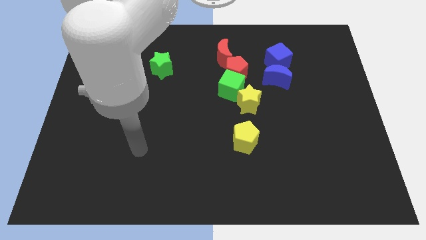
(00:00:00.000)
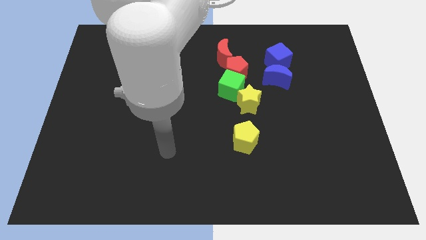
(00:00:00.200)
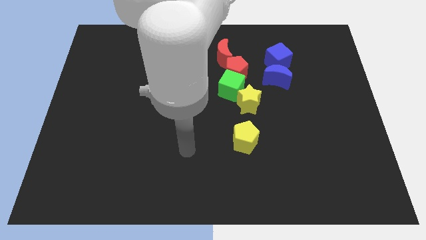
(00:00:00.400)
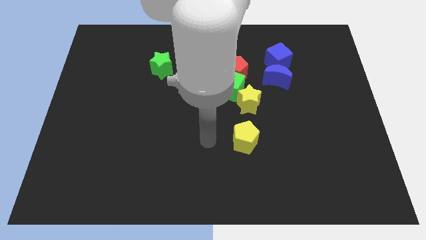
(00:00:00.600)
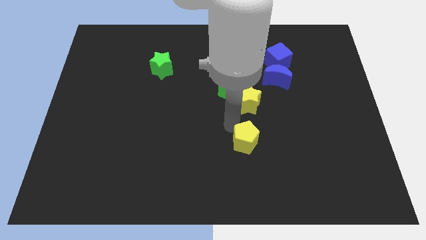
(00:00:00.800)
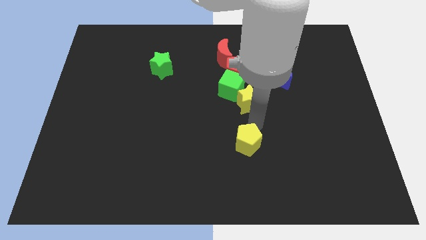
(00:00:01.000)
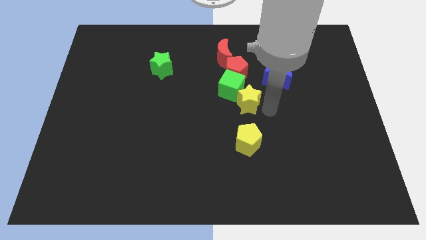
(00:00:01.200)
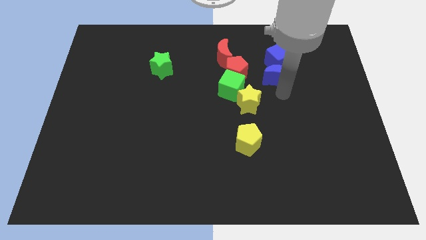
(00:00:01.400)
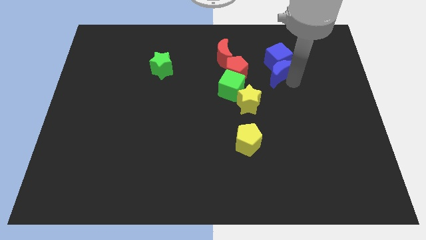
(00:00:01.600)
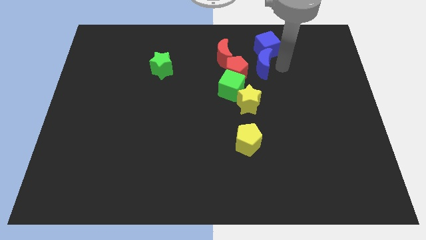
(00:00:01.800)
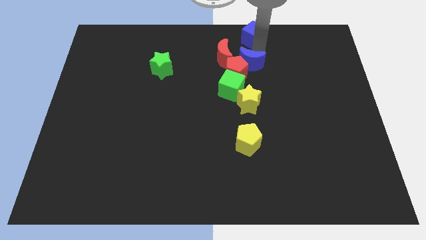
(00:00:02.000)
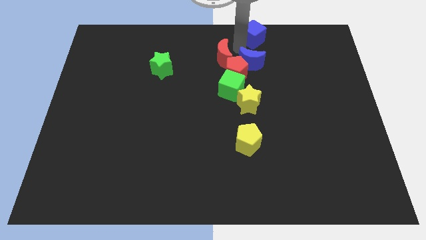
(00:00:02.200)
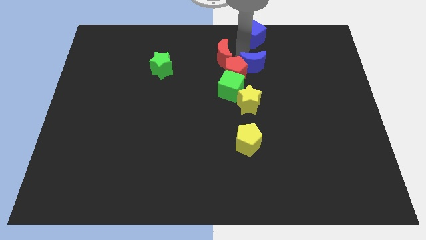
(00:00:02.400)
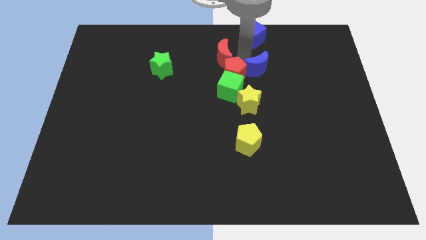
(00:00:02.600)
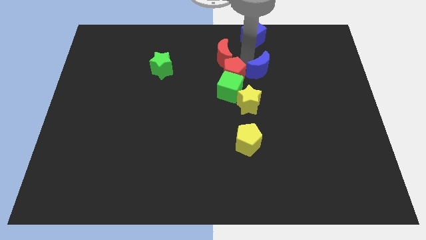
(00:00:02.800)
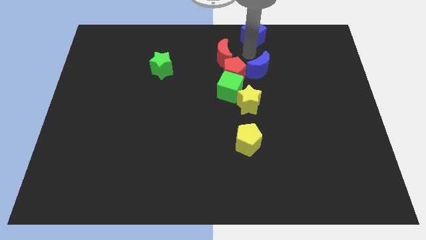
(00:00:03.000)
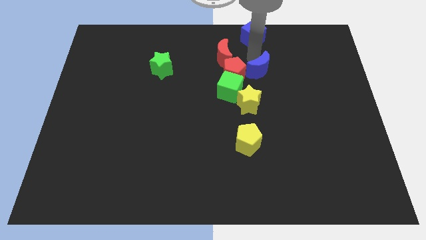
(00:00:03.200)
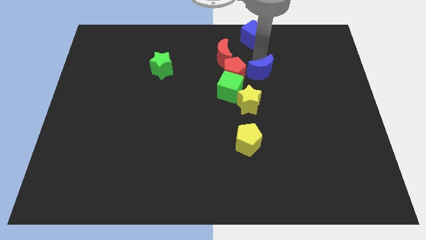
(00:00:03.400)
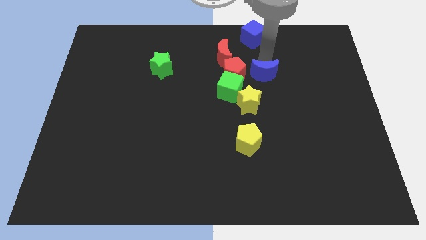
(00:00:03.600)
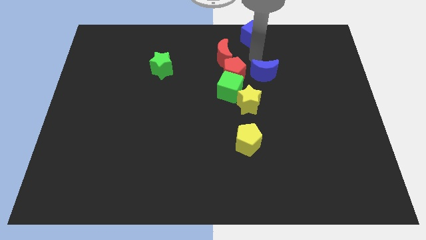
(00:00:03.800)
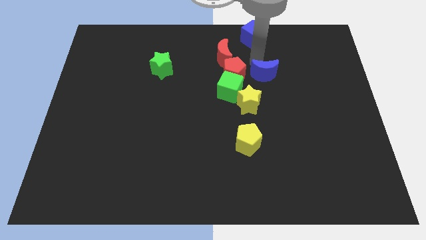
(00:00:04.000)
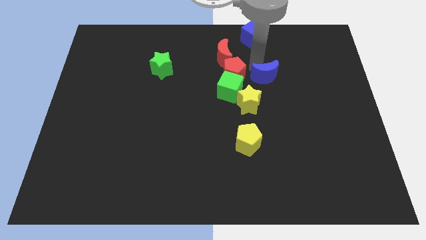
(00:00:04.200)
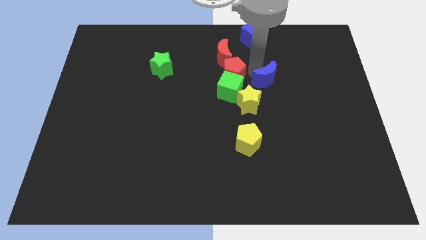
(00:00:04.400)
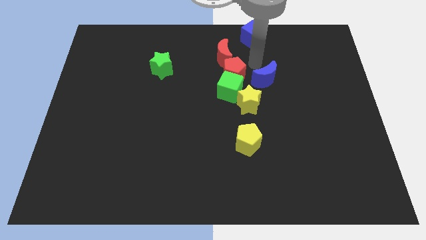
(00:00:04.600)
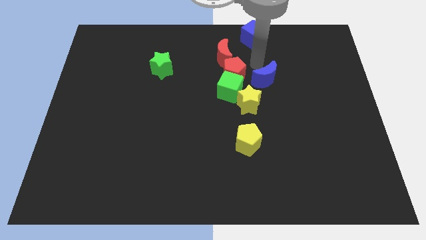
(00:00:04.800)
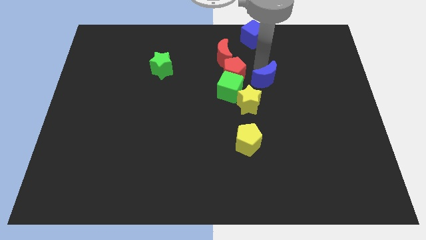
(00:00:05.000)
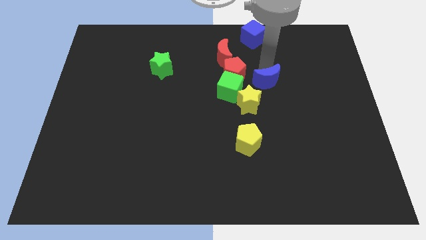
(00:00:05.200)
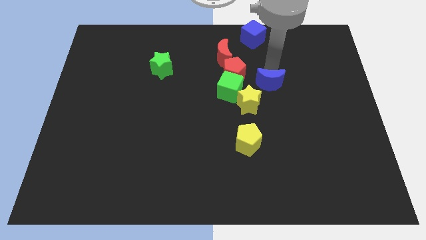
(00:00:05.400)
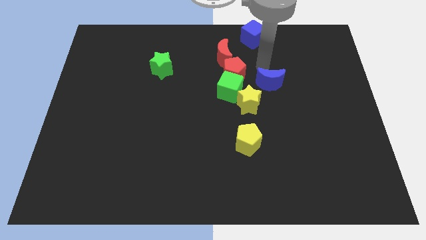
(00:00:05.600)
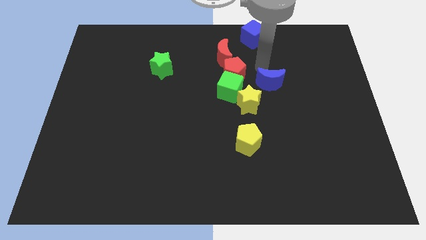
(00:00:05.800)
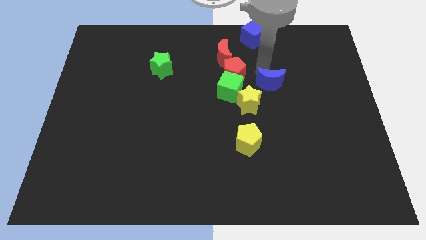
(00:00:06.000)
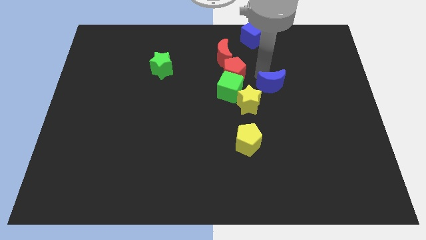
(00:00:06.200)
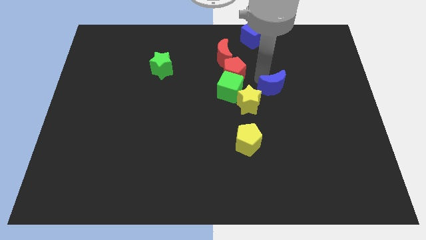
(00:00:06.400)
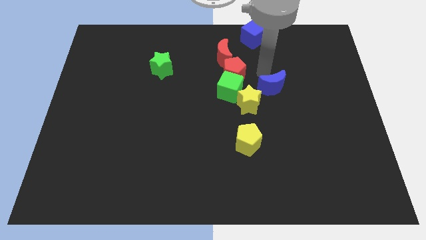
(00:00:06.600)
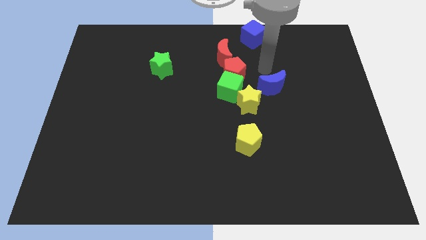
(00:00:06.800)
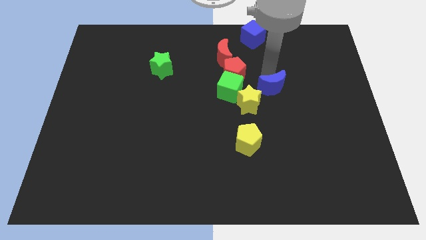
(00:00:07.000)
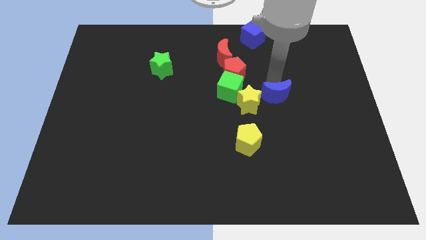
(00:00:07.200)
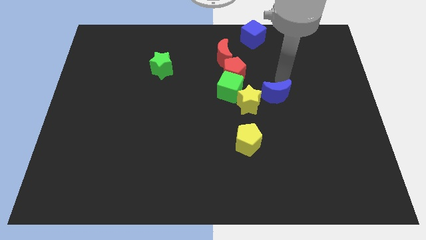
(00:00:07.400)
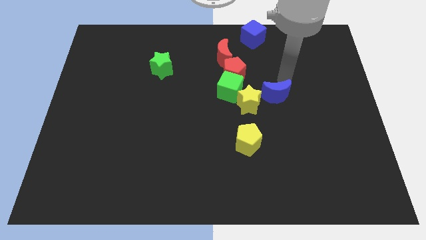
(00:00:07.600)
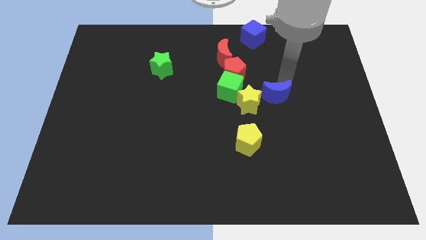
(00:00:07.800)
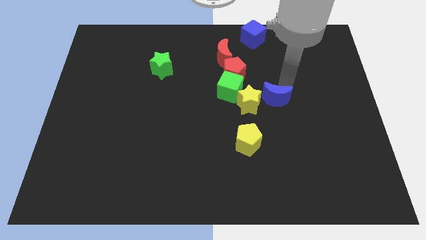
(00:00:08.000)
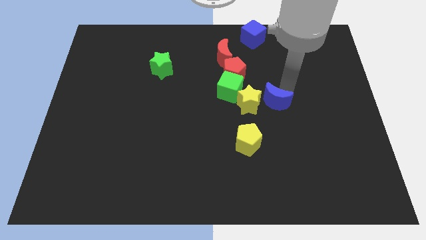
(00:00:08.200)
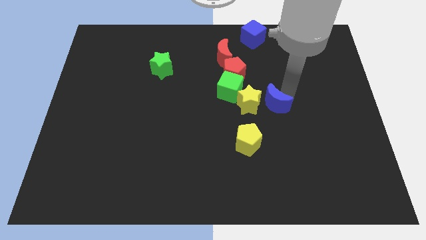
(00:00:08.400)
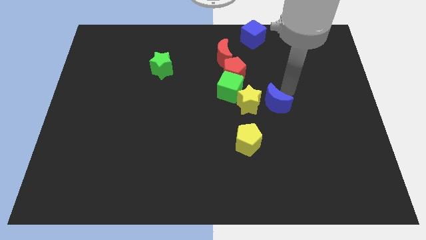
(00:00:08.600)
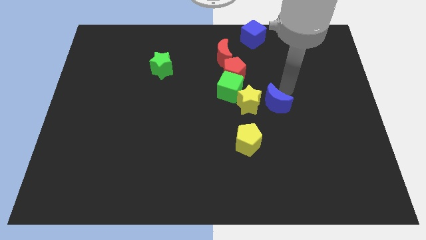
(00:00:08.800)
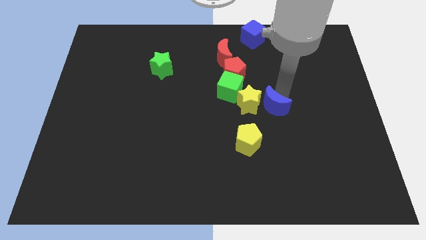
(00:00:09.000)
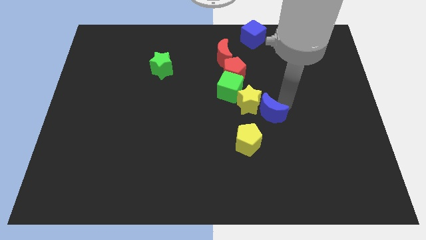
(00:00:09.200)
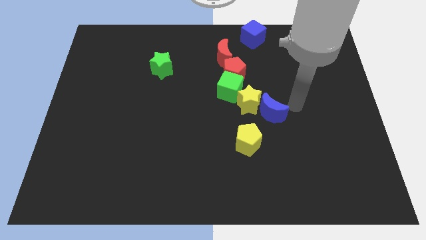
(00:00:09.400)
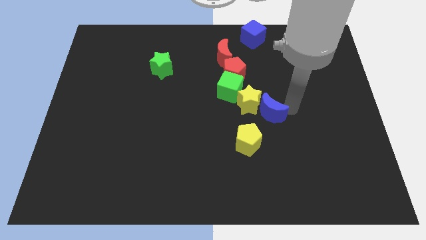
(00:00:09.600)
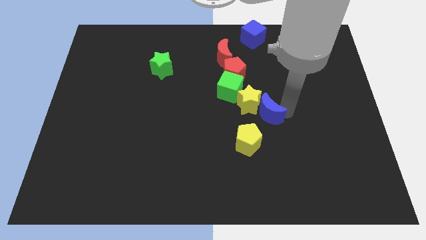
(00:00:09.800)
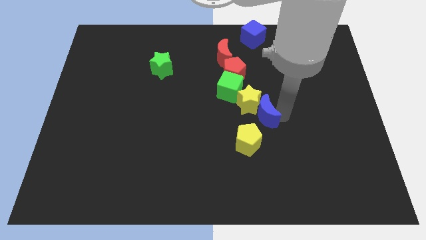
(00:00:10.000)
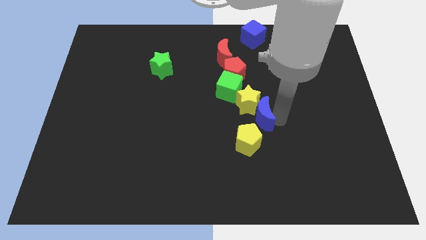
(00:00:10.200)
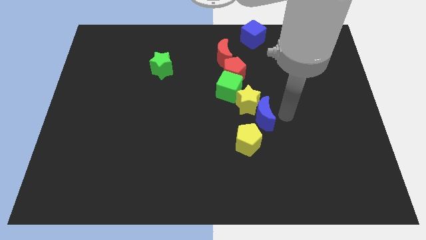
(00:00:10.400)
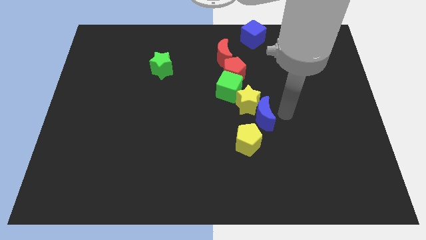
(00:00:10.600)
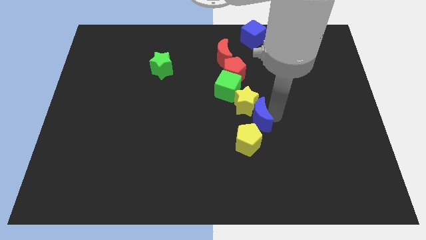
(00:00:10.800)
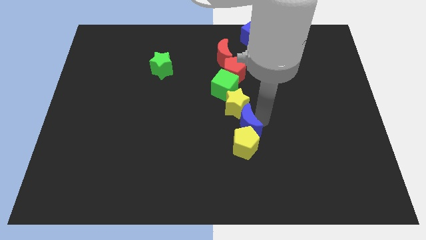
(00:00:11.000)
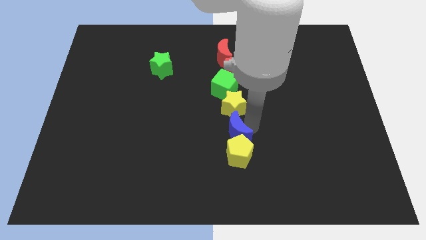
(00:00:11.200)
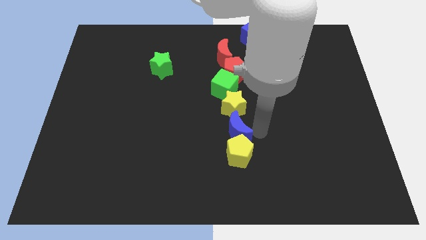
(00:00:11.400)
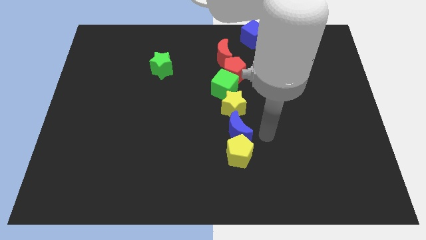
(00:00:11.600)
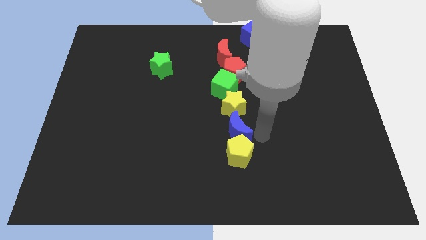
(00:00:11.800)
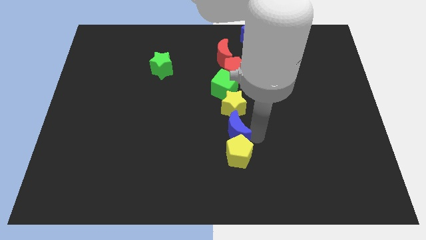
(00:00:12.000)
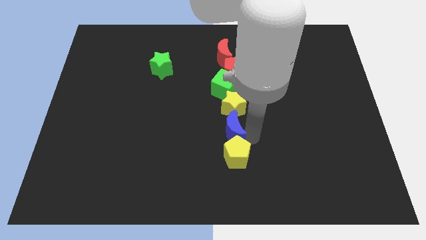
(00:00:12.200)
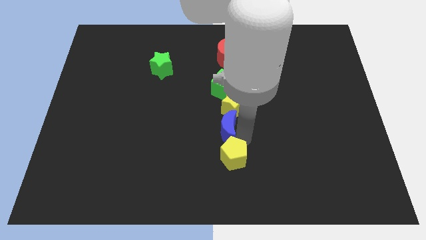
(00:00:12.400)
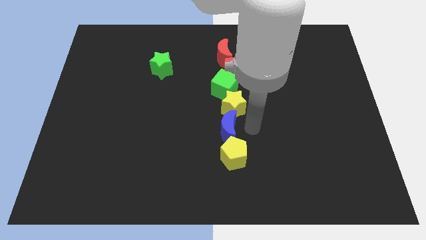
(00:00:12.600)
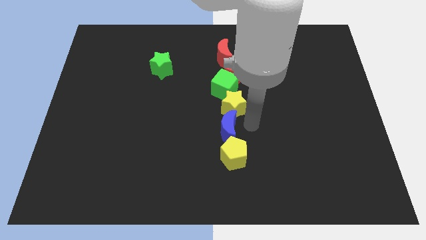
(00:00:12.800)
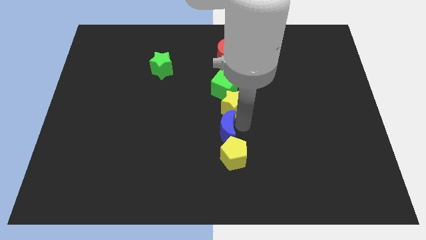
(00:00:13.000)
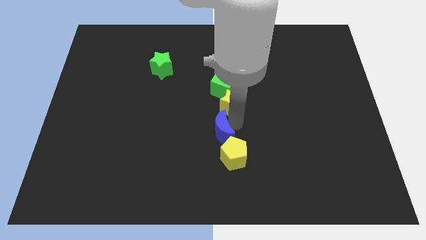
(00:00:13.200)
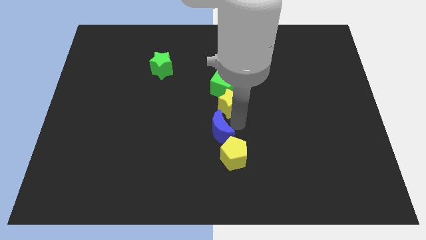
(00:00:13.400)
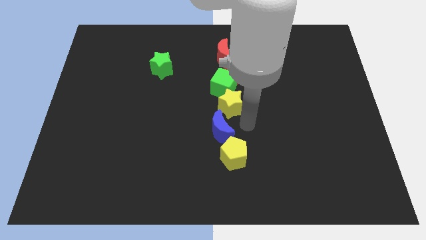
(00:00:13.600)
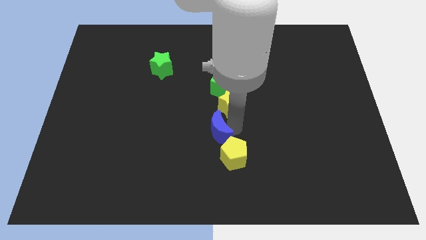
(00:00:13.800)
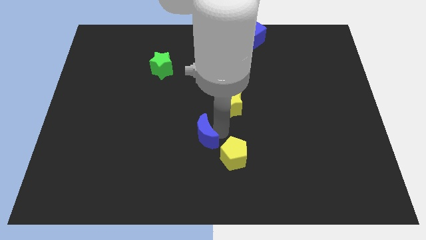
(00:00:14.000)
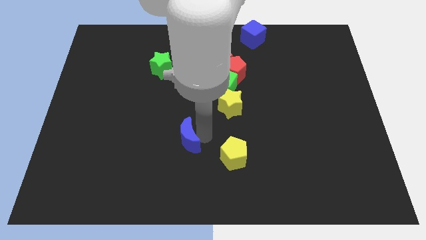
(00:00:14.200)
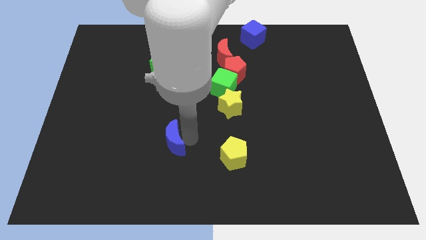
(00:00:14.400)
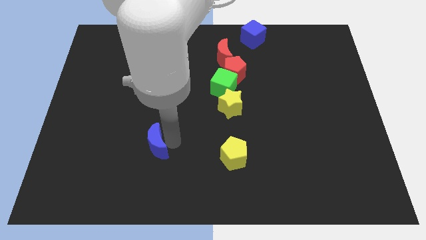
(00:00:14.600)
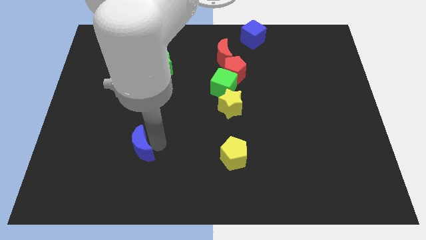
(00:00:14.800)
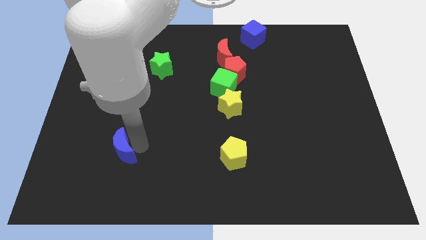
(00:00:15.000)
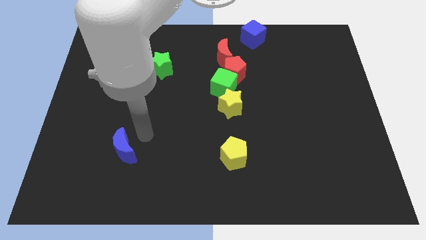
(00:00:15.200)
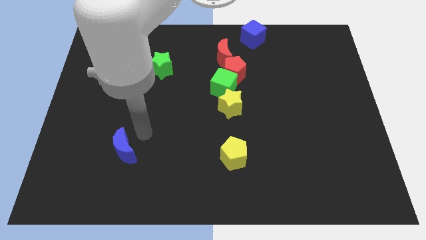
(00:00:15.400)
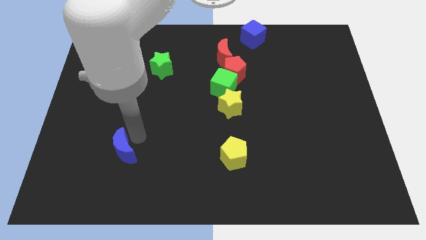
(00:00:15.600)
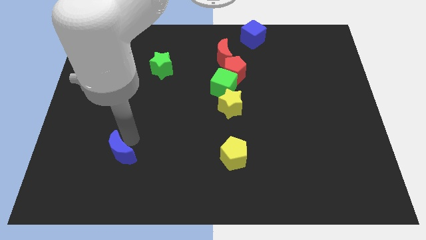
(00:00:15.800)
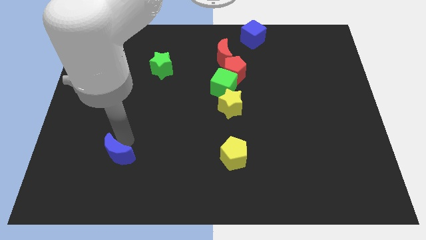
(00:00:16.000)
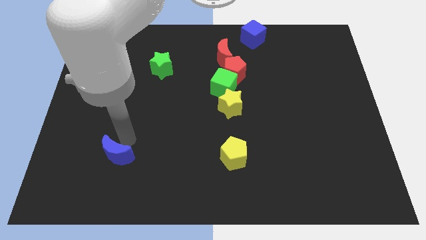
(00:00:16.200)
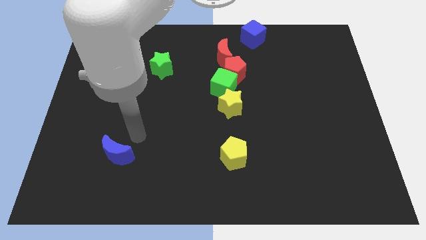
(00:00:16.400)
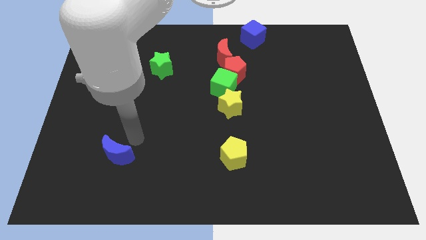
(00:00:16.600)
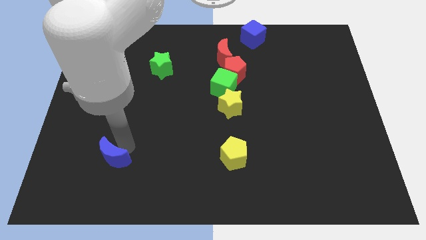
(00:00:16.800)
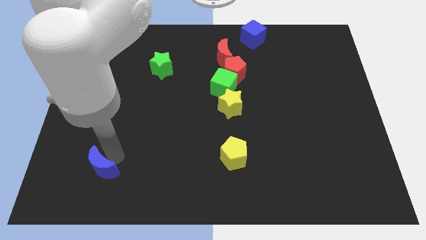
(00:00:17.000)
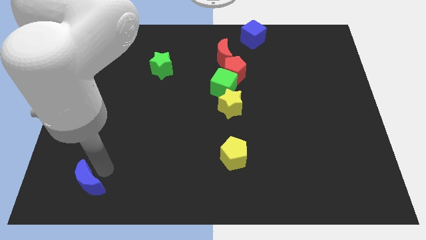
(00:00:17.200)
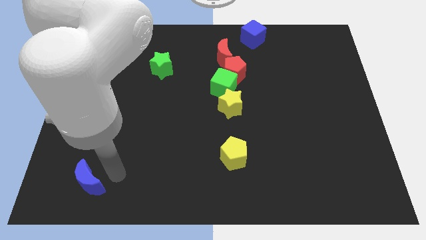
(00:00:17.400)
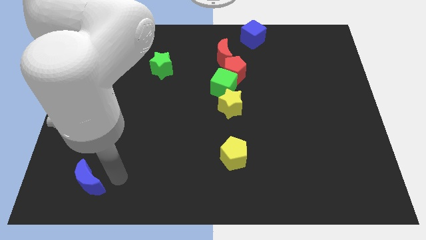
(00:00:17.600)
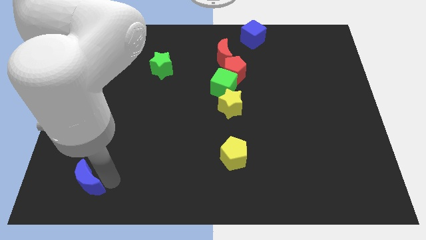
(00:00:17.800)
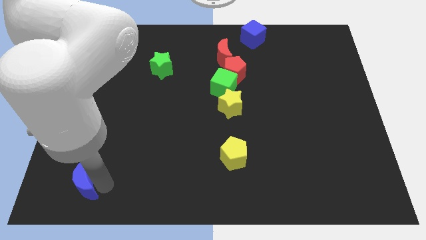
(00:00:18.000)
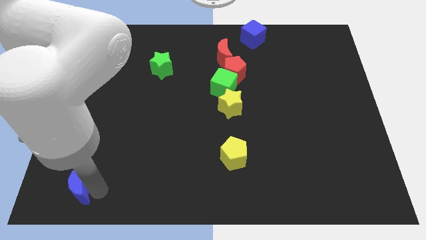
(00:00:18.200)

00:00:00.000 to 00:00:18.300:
put the blue moon to the bottom left of the board
